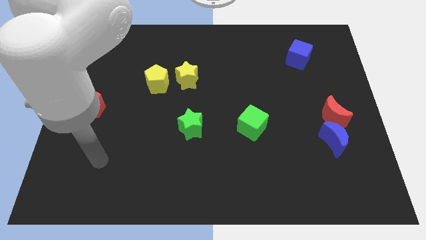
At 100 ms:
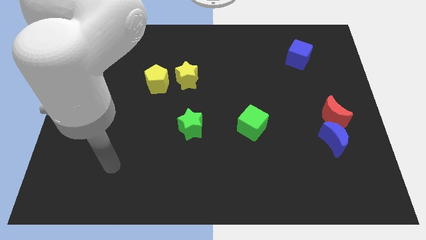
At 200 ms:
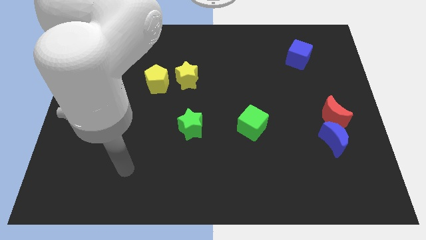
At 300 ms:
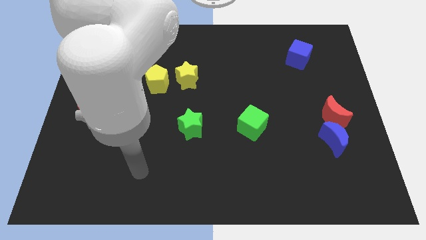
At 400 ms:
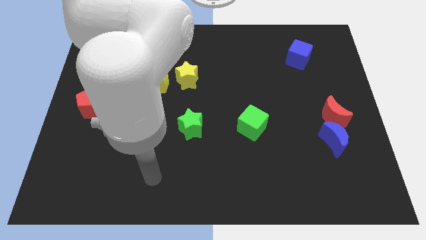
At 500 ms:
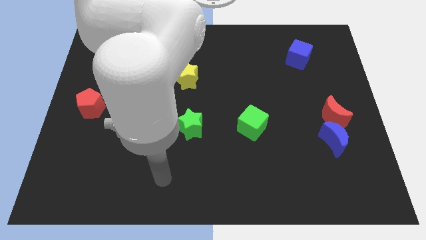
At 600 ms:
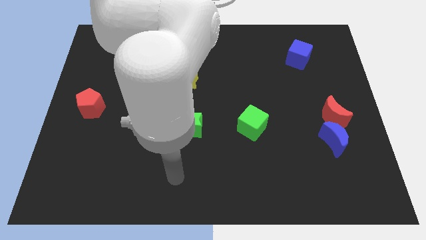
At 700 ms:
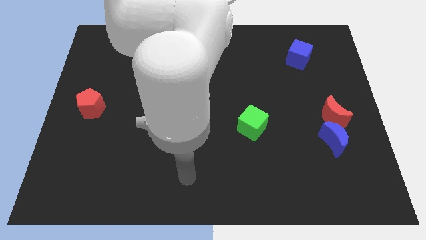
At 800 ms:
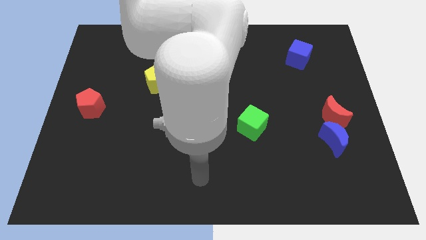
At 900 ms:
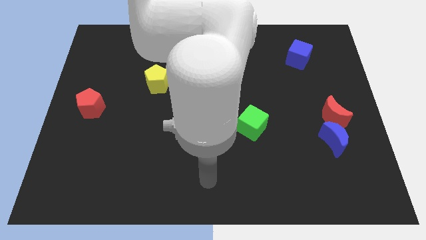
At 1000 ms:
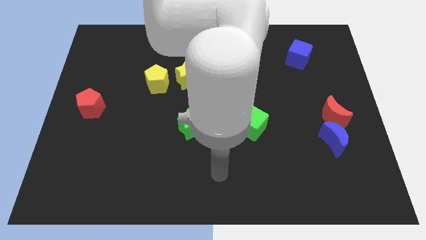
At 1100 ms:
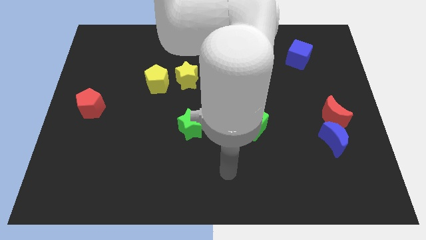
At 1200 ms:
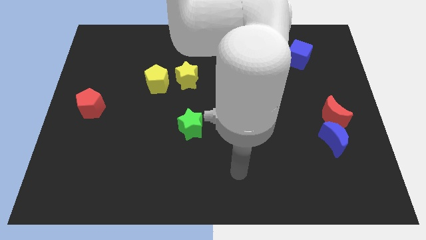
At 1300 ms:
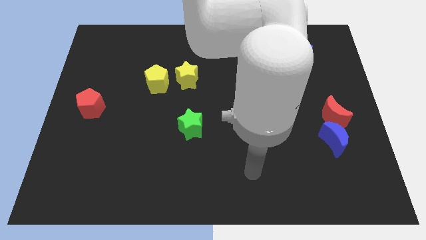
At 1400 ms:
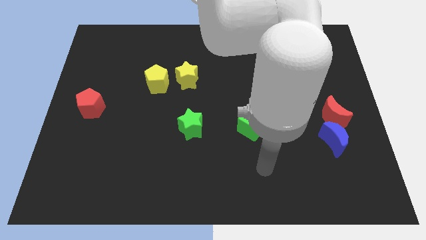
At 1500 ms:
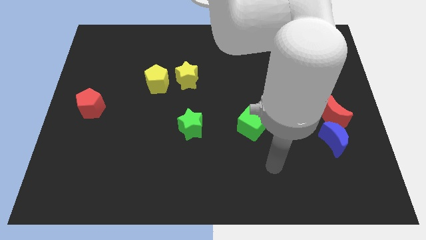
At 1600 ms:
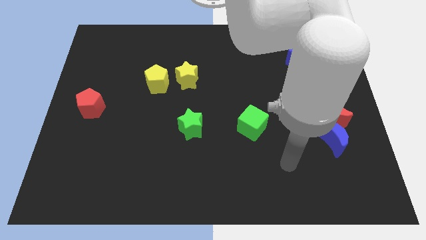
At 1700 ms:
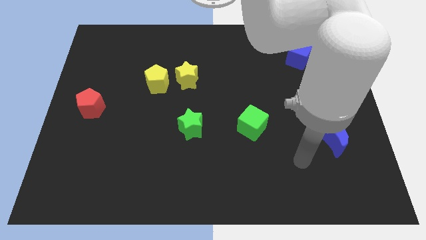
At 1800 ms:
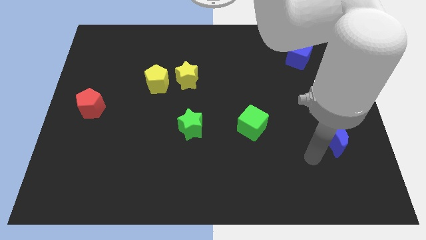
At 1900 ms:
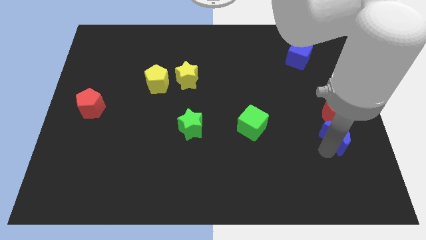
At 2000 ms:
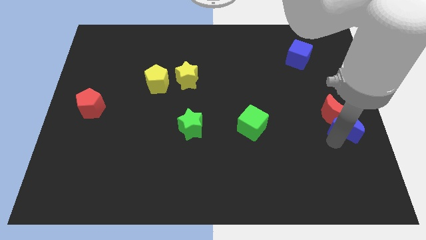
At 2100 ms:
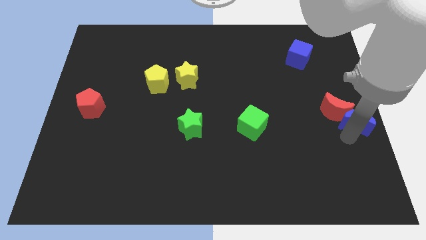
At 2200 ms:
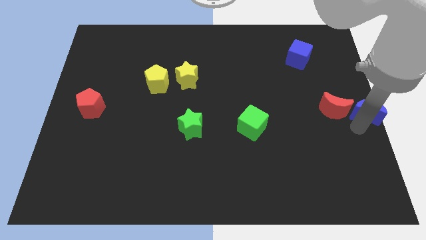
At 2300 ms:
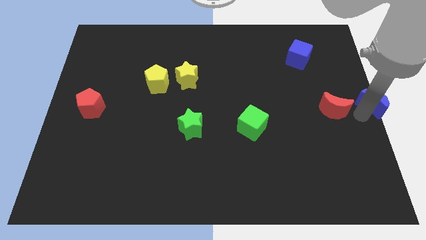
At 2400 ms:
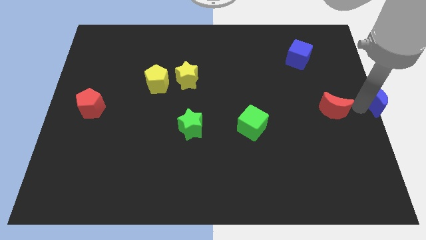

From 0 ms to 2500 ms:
move the red moon away from the blue moon

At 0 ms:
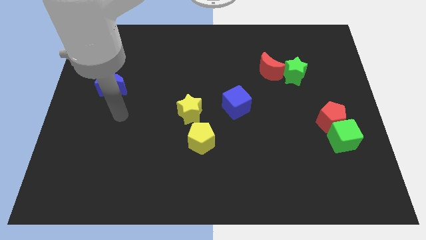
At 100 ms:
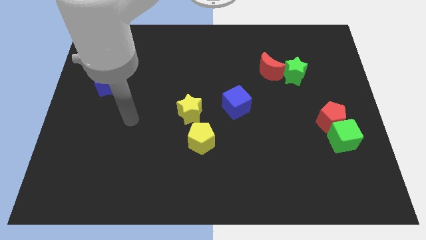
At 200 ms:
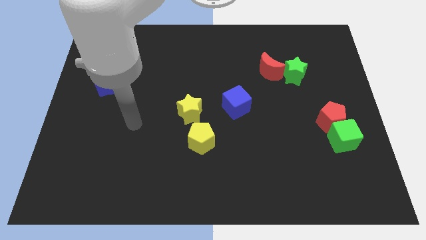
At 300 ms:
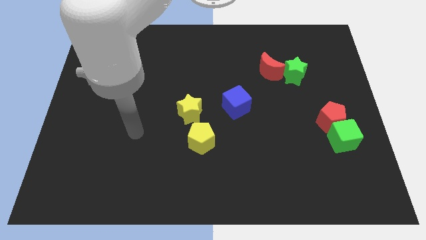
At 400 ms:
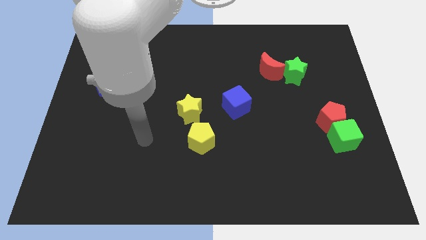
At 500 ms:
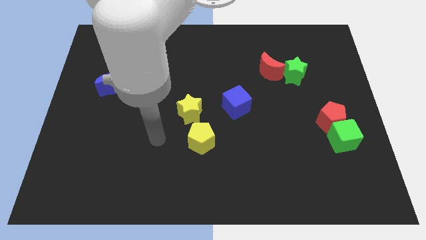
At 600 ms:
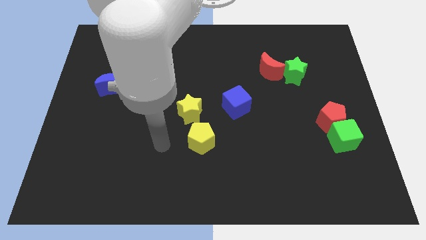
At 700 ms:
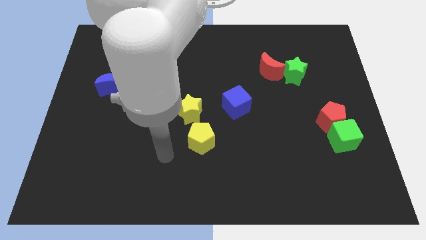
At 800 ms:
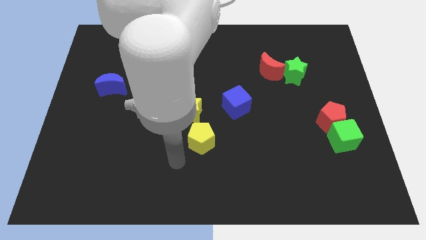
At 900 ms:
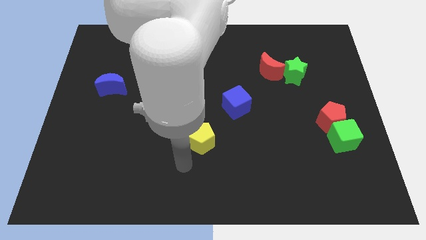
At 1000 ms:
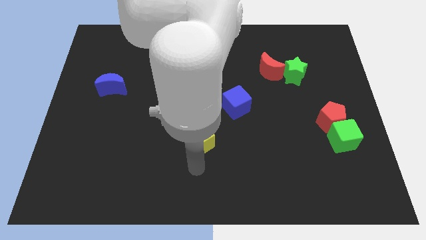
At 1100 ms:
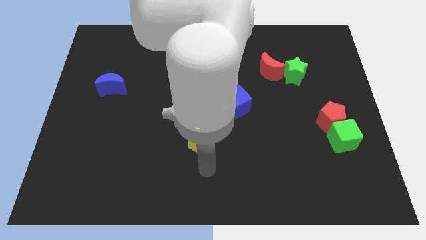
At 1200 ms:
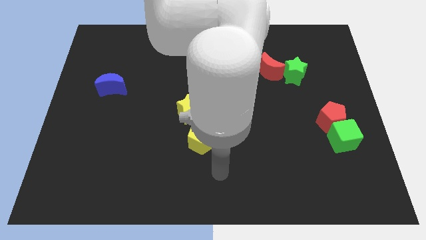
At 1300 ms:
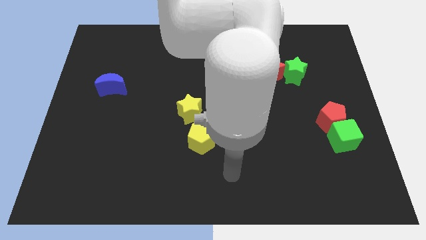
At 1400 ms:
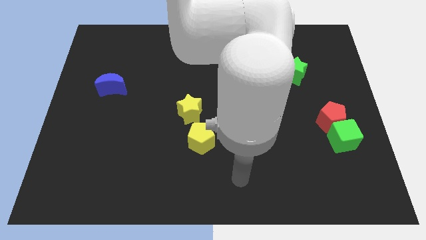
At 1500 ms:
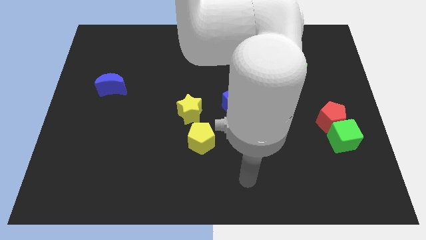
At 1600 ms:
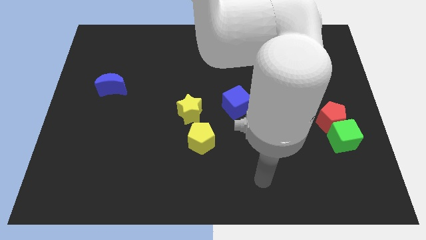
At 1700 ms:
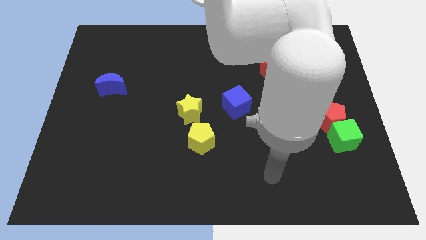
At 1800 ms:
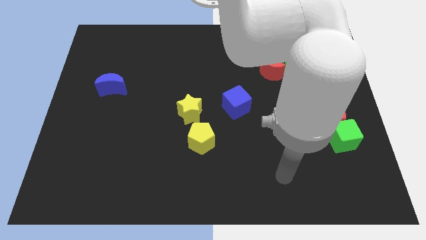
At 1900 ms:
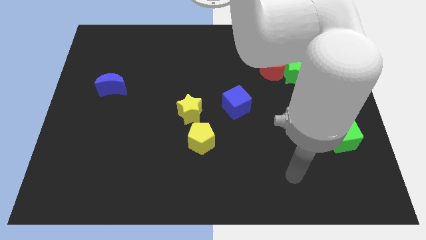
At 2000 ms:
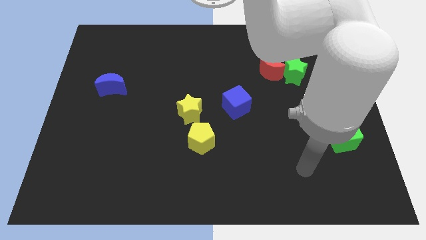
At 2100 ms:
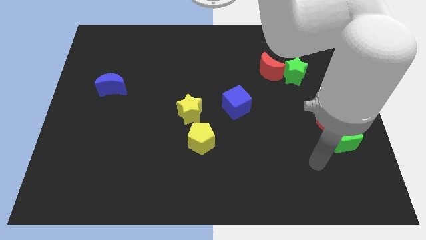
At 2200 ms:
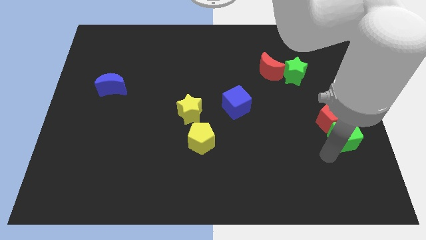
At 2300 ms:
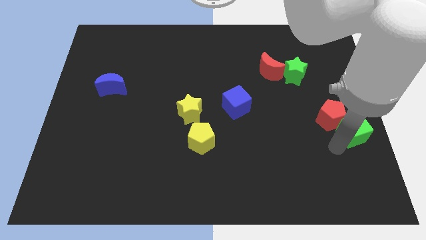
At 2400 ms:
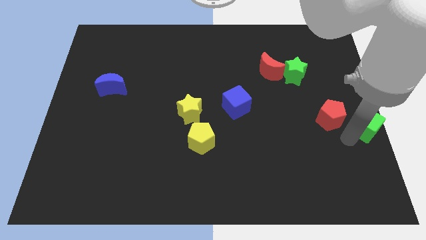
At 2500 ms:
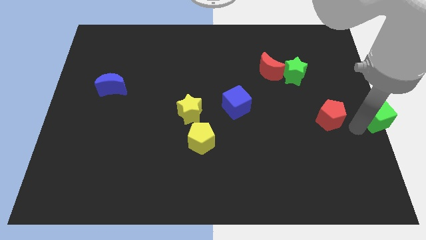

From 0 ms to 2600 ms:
pull the red pentagon apart from the green cube

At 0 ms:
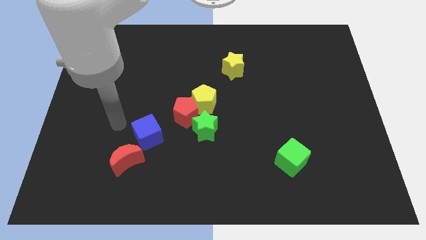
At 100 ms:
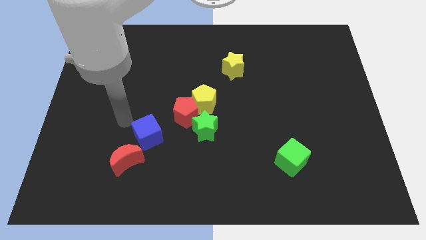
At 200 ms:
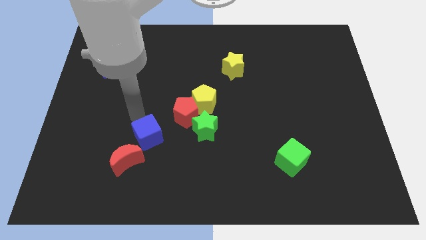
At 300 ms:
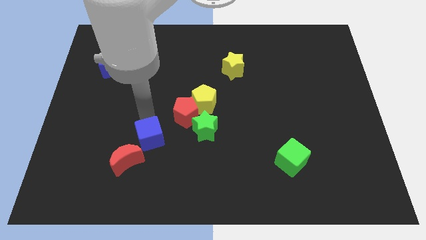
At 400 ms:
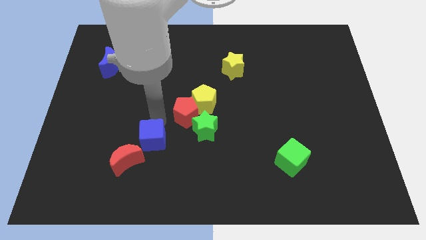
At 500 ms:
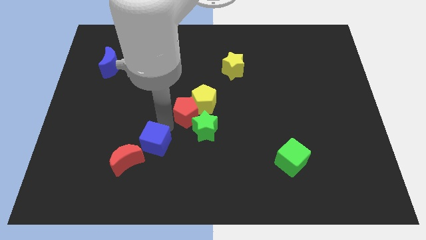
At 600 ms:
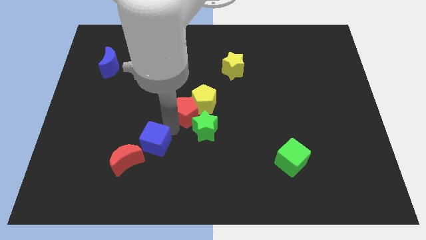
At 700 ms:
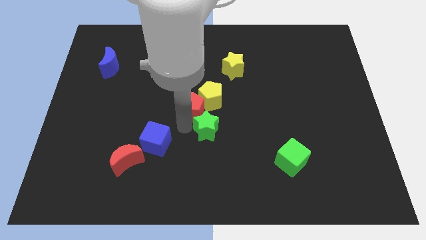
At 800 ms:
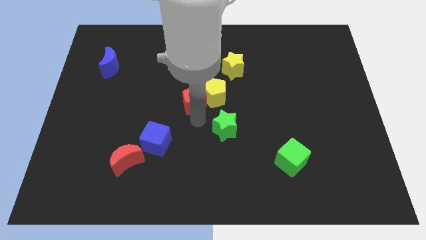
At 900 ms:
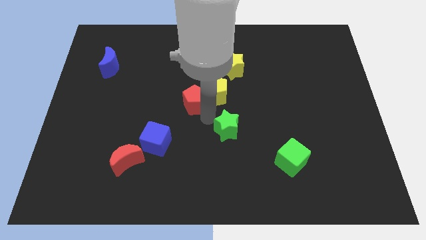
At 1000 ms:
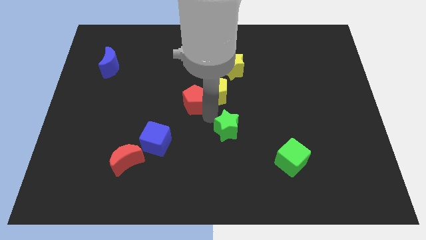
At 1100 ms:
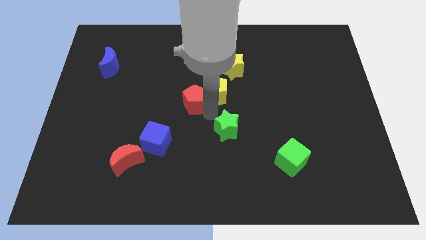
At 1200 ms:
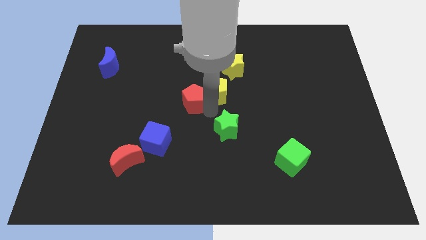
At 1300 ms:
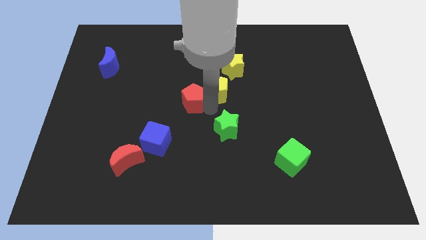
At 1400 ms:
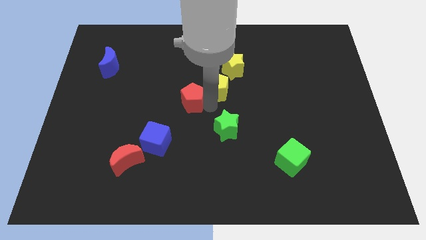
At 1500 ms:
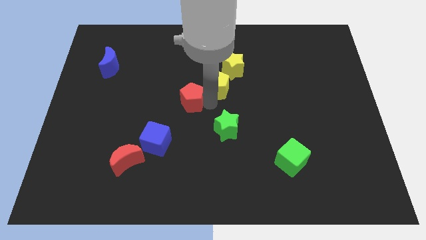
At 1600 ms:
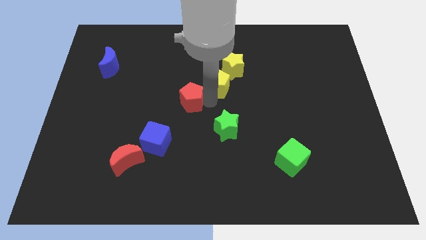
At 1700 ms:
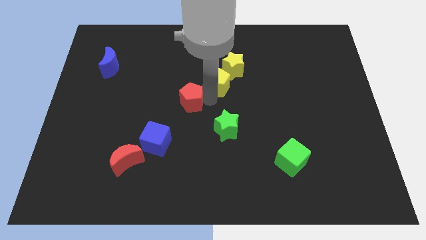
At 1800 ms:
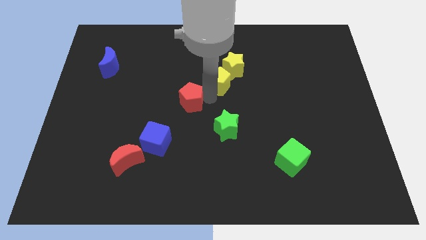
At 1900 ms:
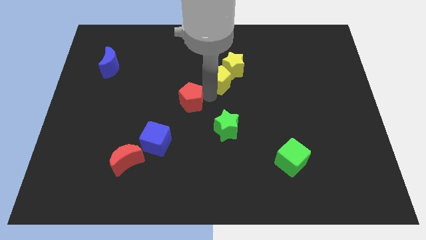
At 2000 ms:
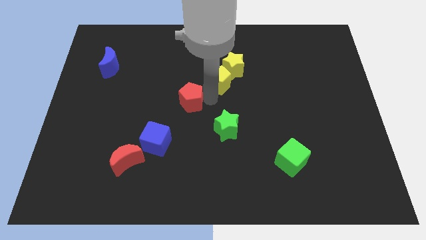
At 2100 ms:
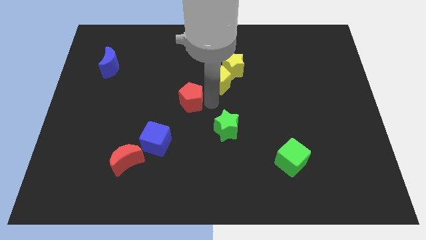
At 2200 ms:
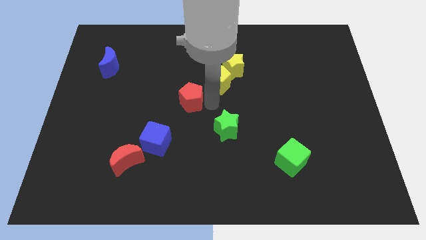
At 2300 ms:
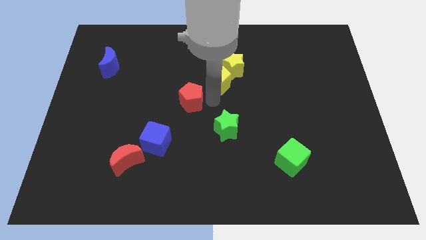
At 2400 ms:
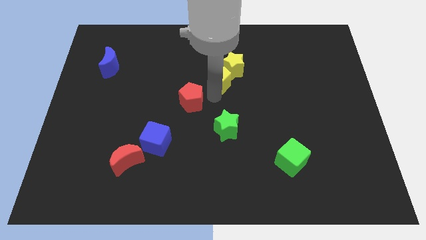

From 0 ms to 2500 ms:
separate the yellow pentagon from the red pentagon and green star

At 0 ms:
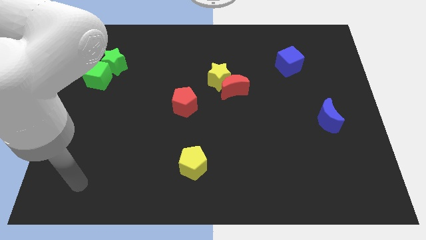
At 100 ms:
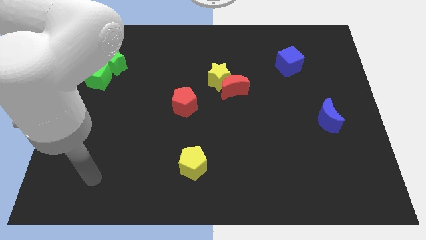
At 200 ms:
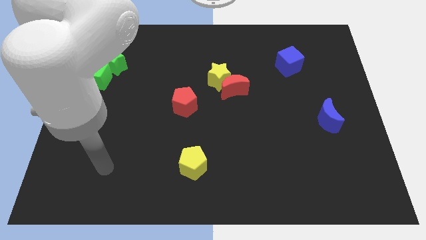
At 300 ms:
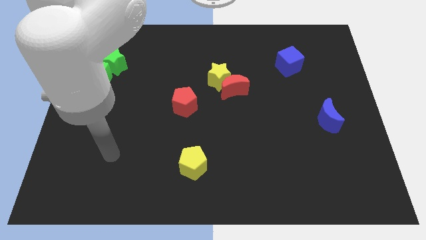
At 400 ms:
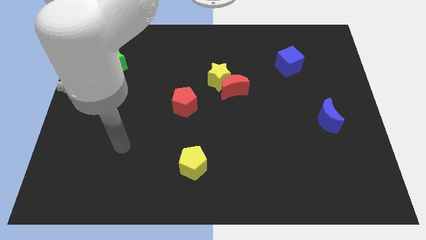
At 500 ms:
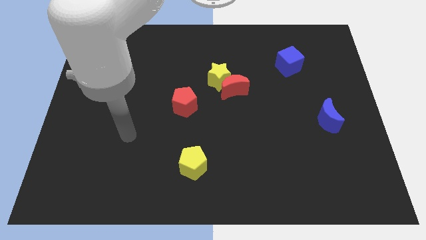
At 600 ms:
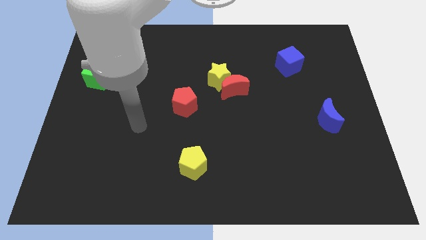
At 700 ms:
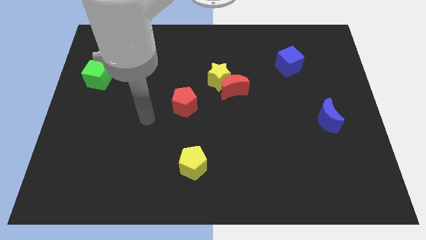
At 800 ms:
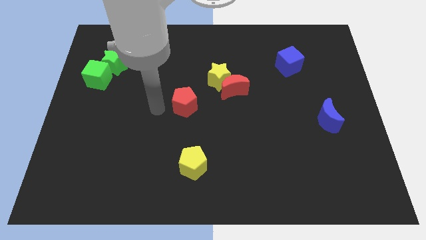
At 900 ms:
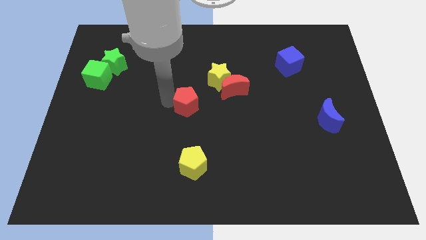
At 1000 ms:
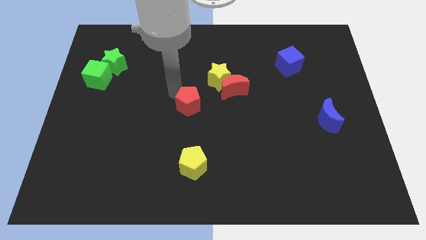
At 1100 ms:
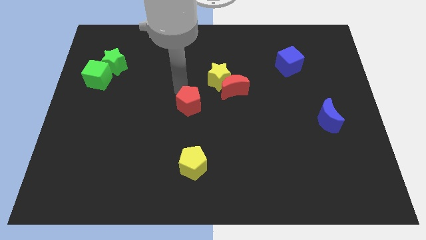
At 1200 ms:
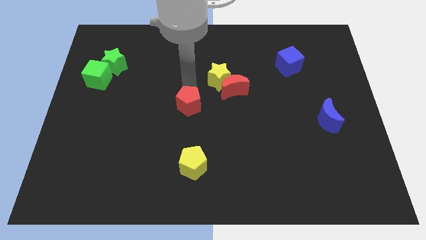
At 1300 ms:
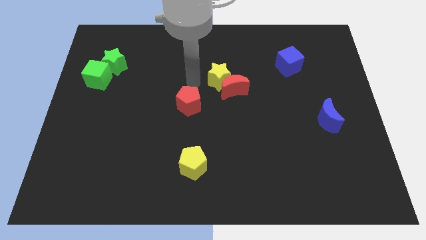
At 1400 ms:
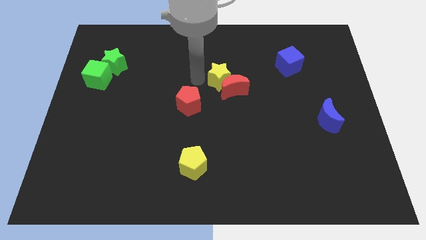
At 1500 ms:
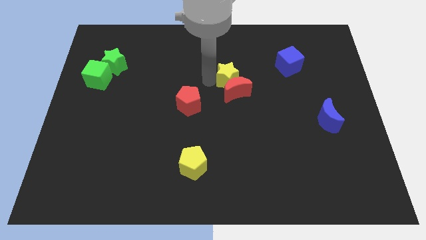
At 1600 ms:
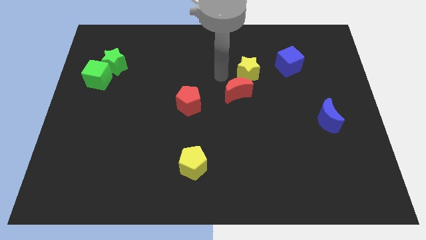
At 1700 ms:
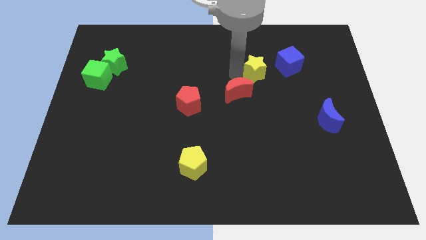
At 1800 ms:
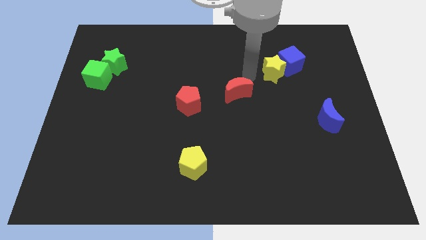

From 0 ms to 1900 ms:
separate the red moon from the yellow star
